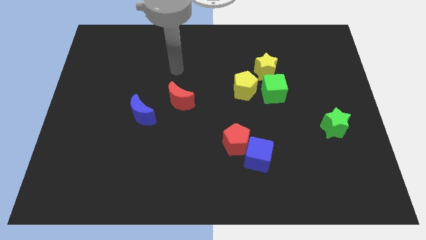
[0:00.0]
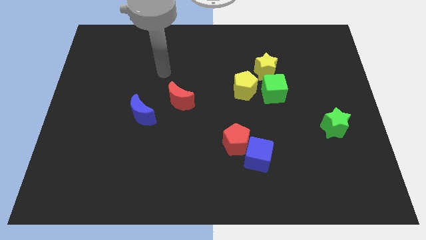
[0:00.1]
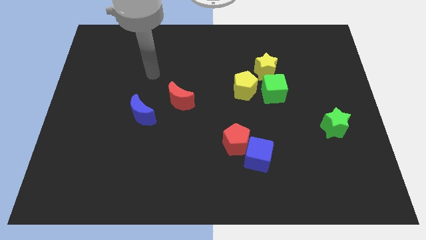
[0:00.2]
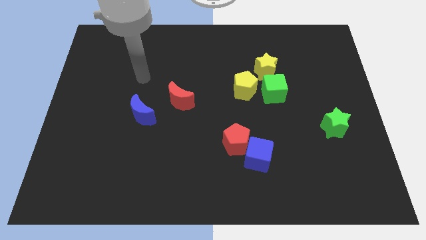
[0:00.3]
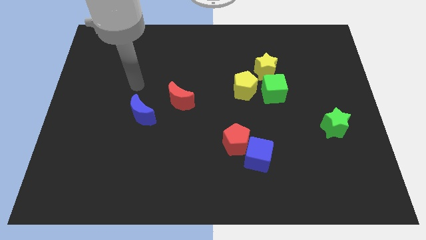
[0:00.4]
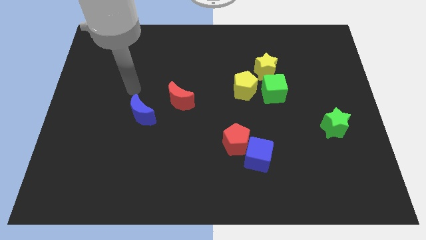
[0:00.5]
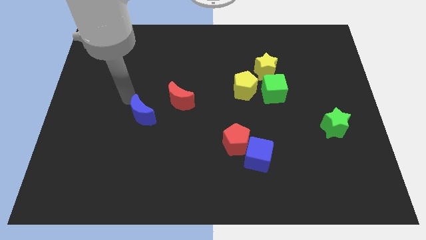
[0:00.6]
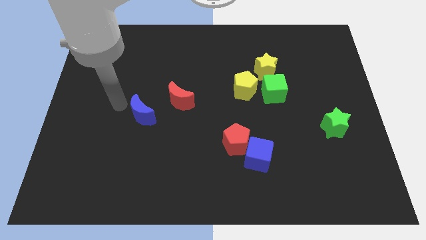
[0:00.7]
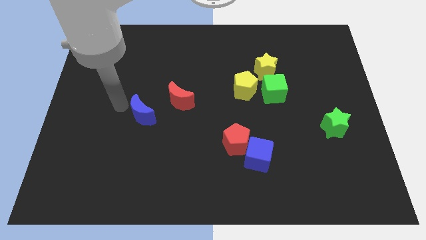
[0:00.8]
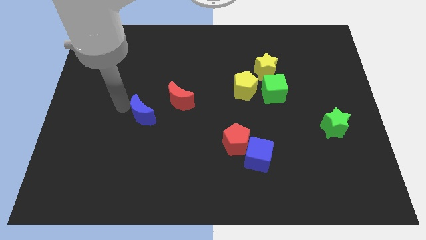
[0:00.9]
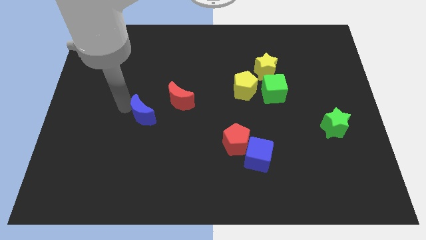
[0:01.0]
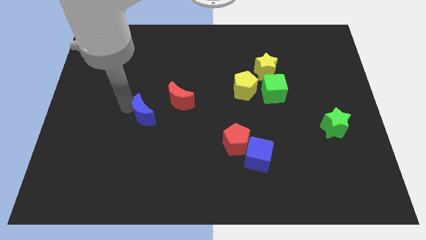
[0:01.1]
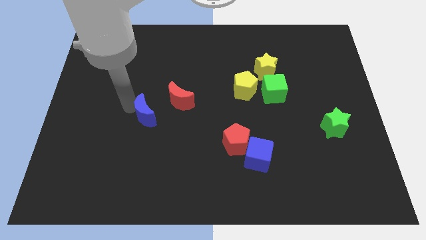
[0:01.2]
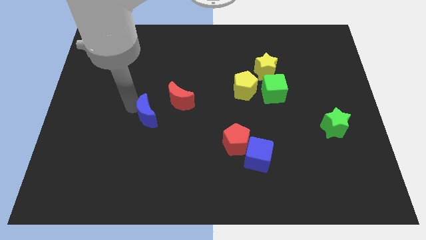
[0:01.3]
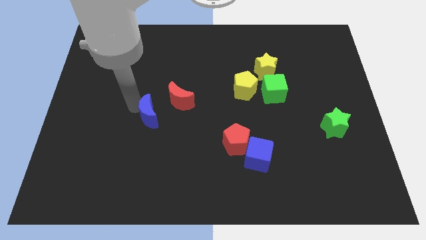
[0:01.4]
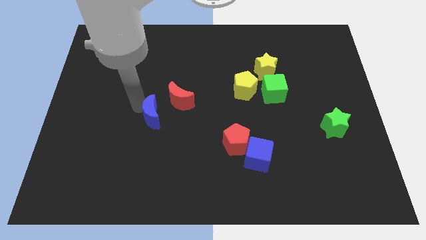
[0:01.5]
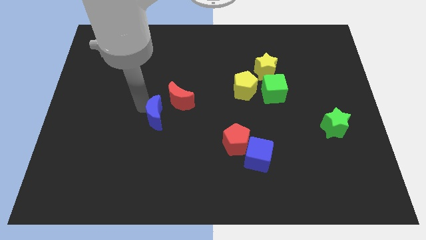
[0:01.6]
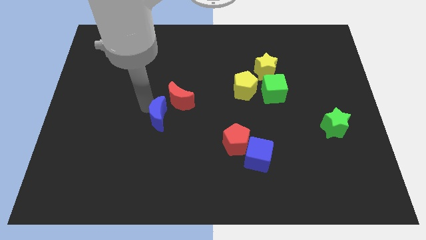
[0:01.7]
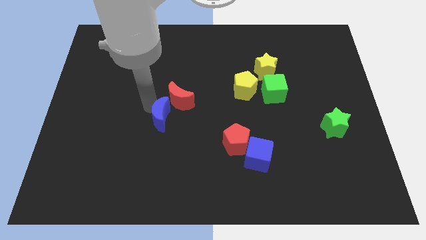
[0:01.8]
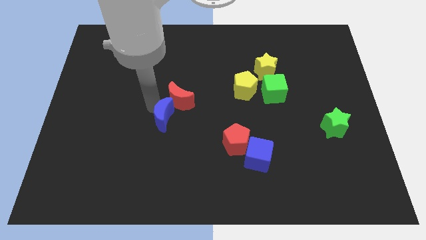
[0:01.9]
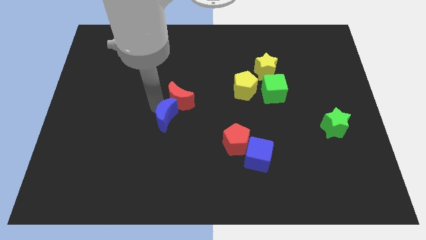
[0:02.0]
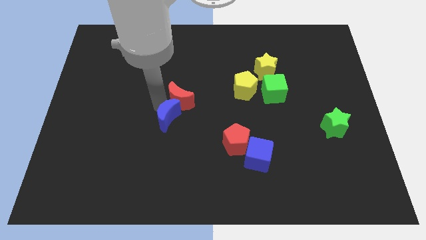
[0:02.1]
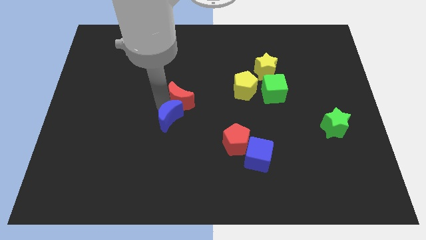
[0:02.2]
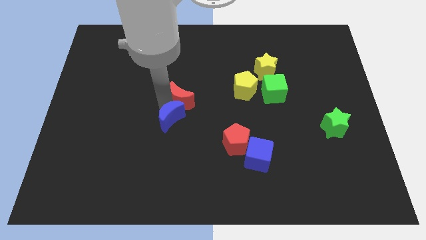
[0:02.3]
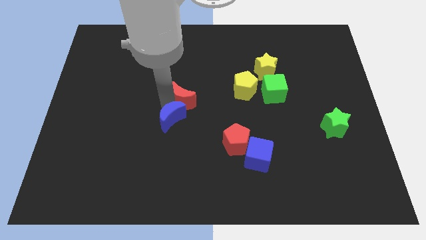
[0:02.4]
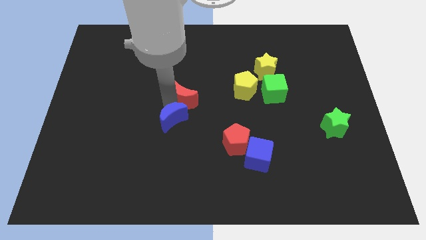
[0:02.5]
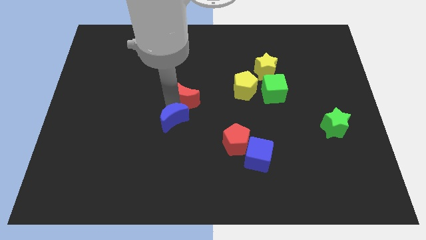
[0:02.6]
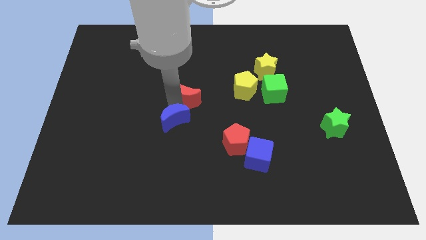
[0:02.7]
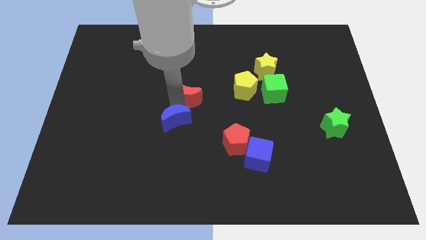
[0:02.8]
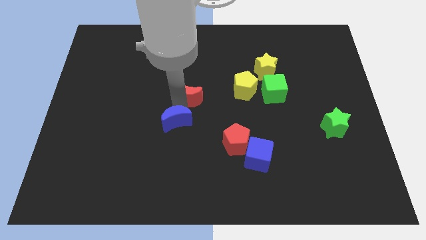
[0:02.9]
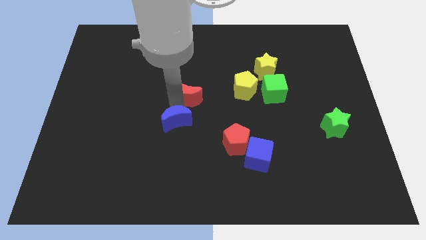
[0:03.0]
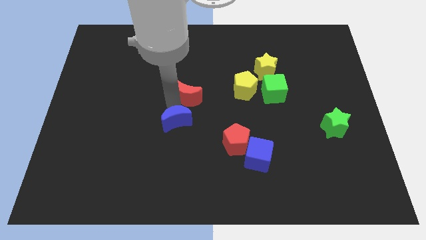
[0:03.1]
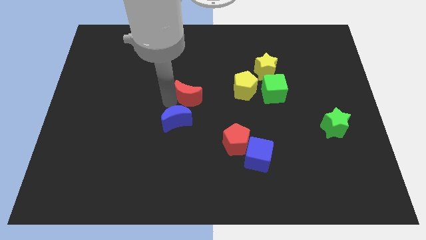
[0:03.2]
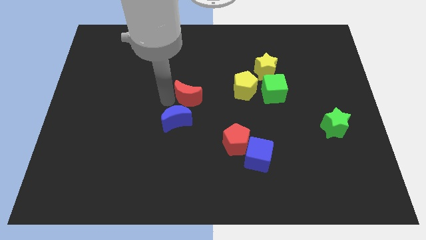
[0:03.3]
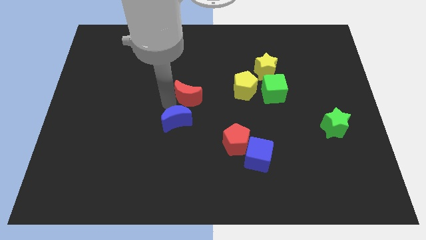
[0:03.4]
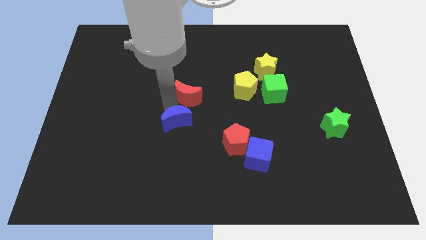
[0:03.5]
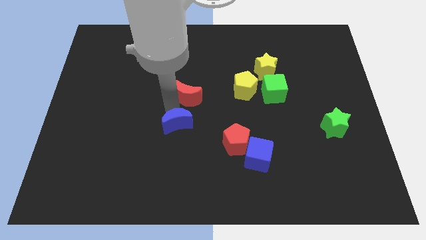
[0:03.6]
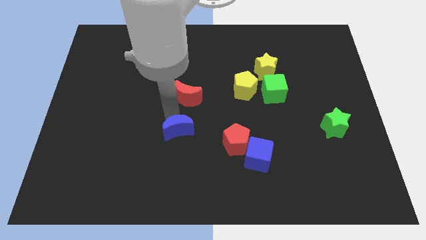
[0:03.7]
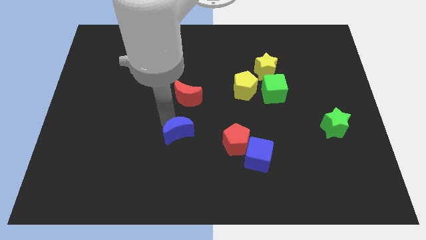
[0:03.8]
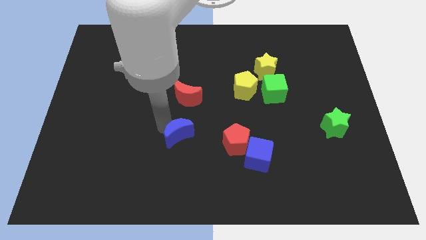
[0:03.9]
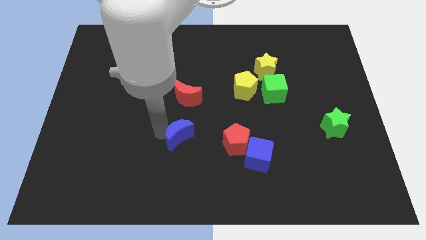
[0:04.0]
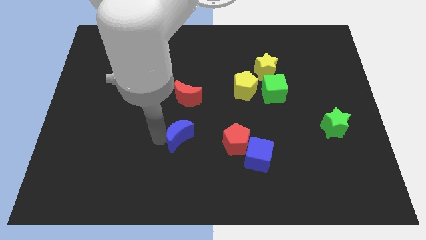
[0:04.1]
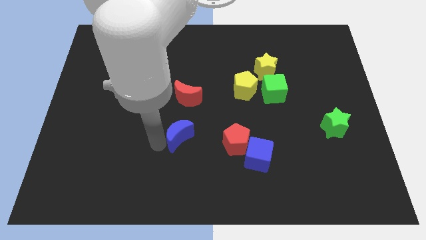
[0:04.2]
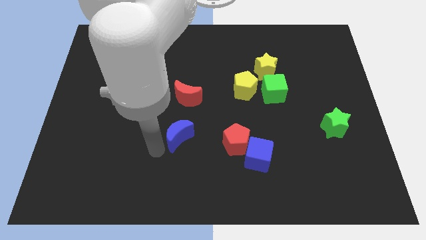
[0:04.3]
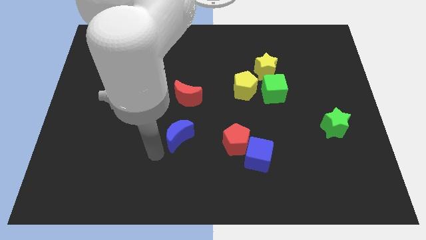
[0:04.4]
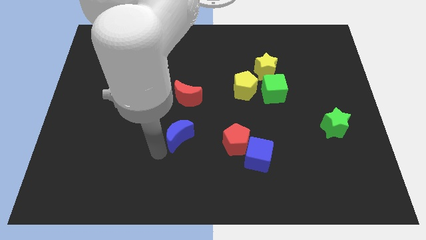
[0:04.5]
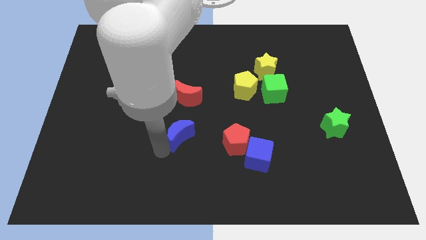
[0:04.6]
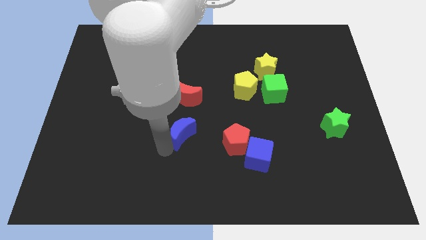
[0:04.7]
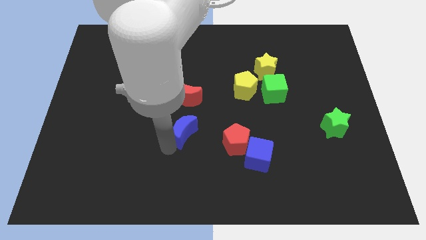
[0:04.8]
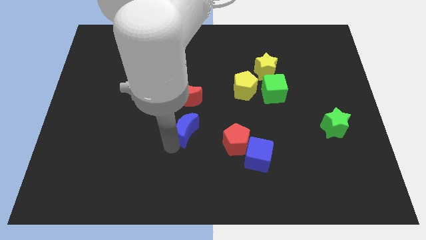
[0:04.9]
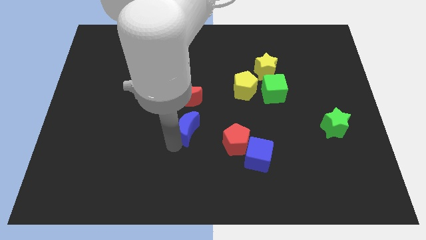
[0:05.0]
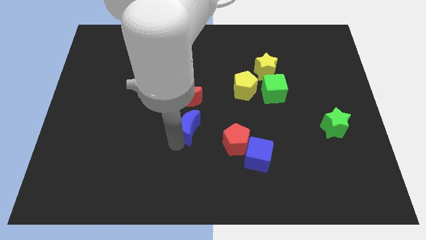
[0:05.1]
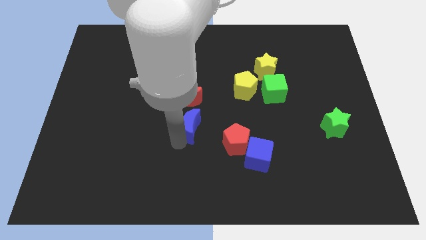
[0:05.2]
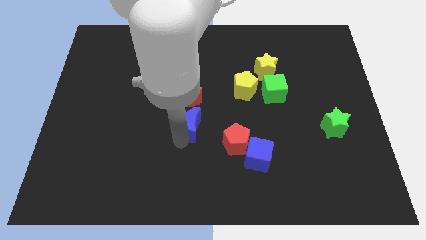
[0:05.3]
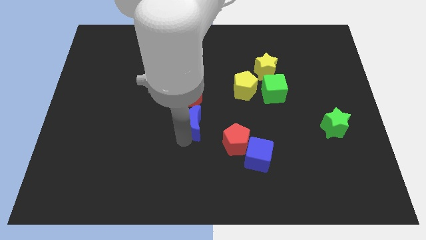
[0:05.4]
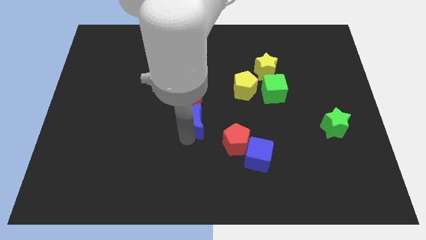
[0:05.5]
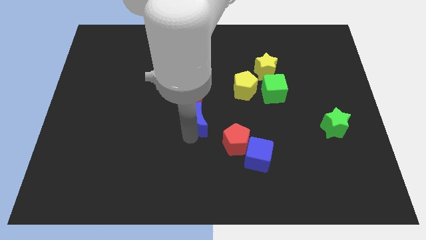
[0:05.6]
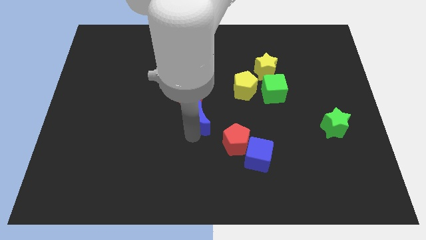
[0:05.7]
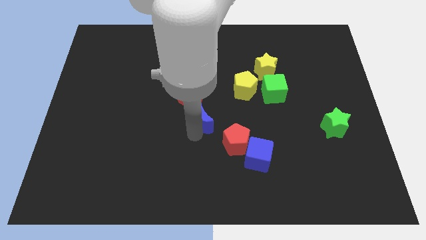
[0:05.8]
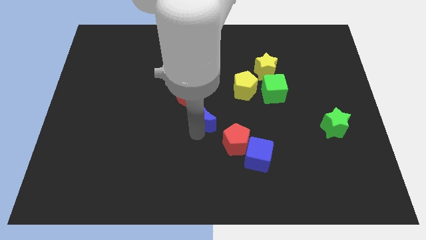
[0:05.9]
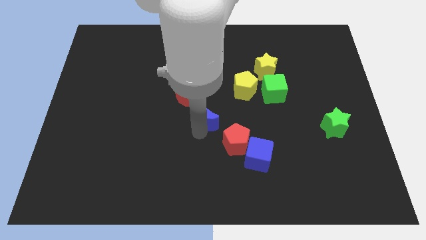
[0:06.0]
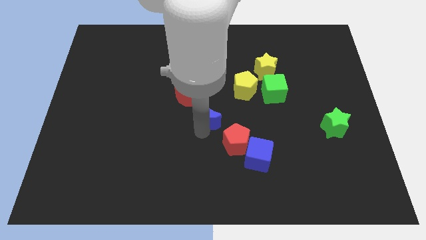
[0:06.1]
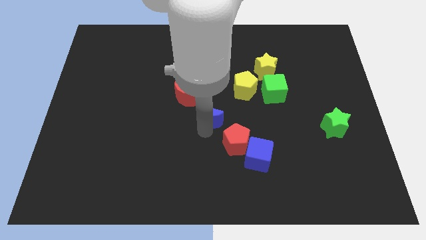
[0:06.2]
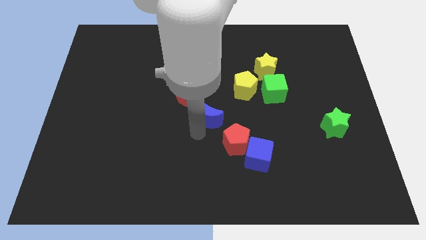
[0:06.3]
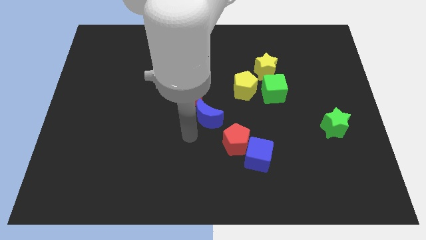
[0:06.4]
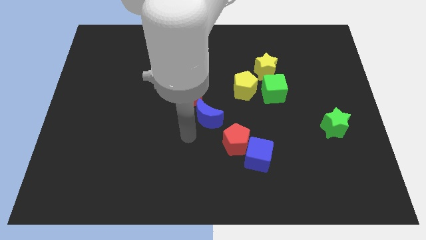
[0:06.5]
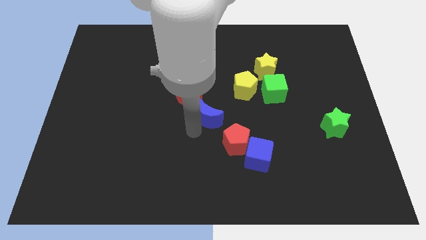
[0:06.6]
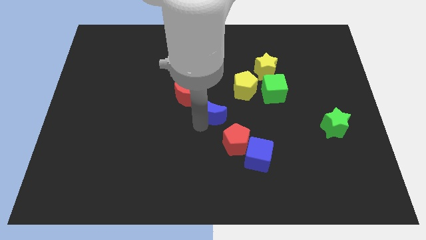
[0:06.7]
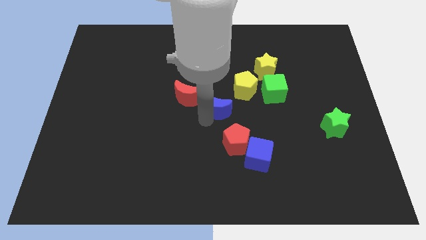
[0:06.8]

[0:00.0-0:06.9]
move the blue moon right of the red moon
